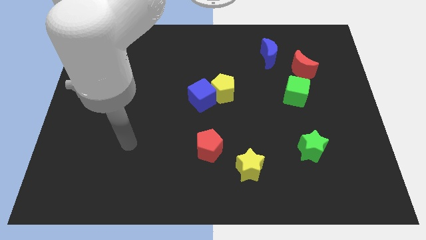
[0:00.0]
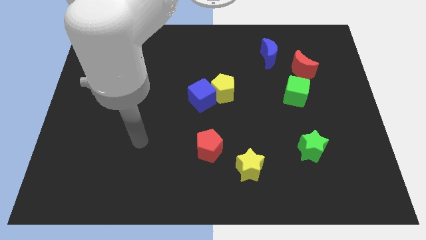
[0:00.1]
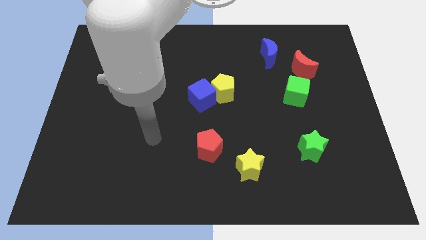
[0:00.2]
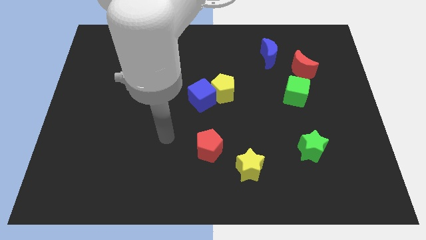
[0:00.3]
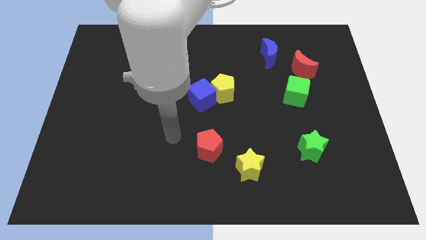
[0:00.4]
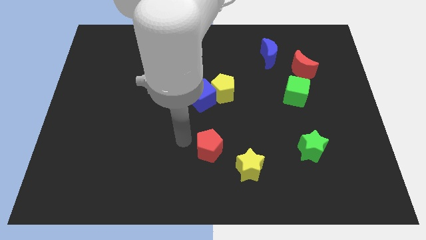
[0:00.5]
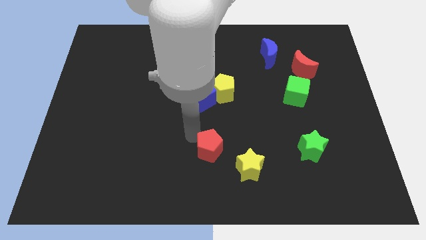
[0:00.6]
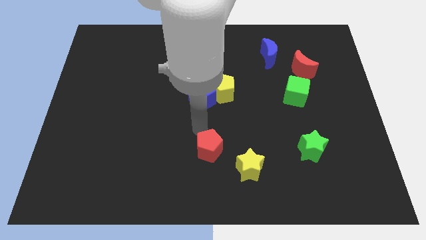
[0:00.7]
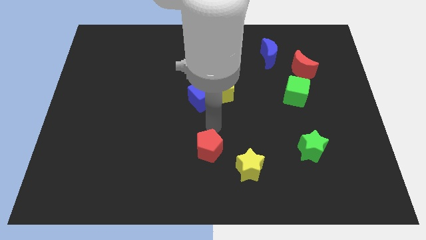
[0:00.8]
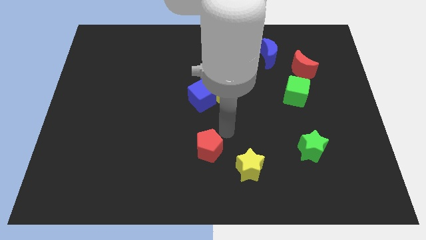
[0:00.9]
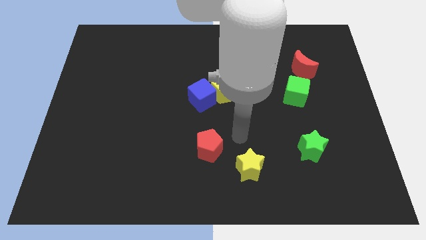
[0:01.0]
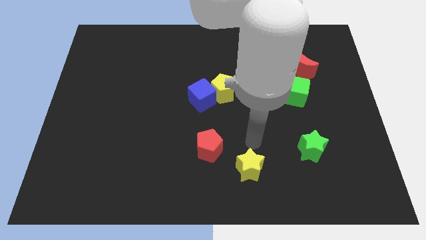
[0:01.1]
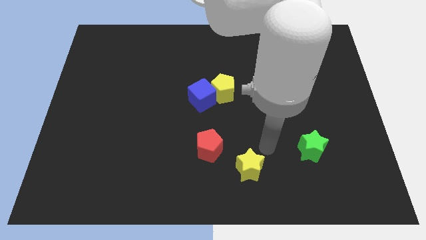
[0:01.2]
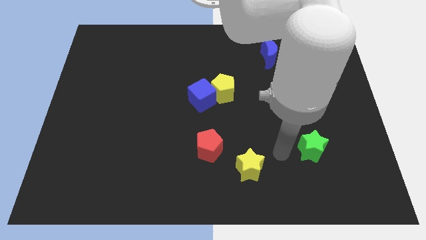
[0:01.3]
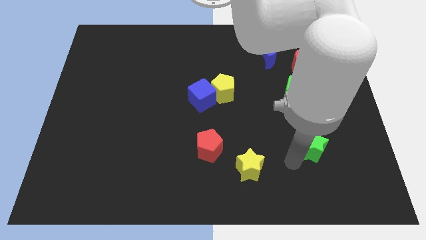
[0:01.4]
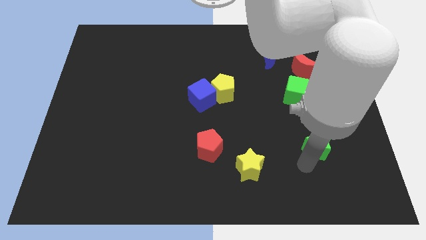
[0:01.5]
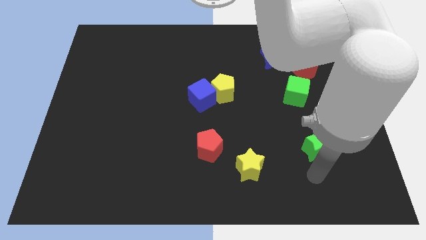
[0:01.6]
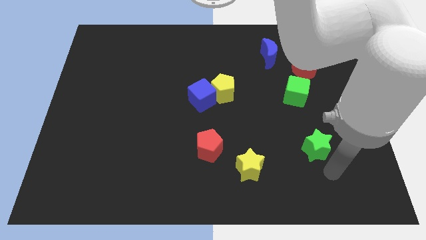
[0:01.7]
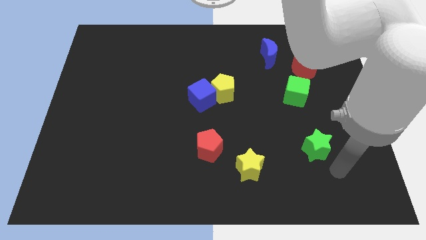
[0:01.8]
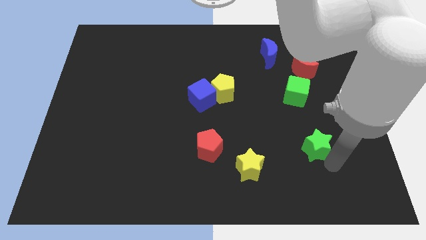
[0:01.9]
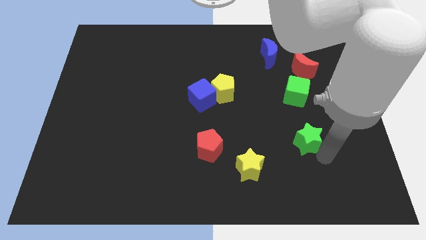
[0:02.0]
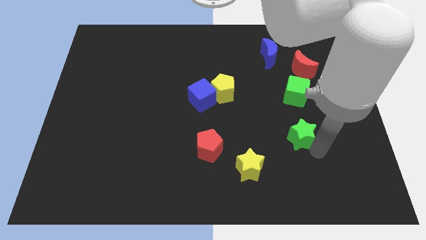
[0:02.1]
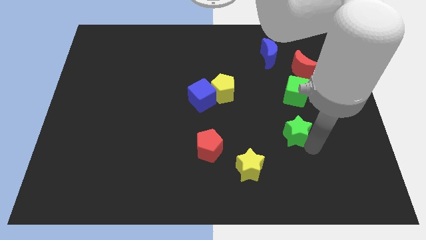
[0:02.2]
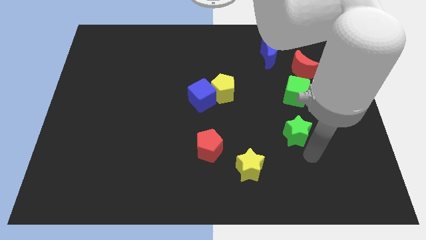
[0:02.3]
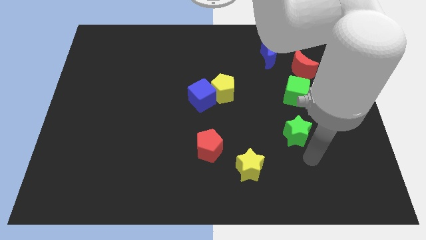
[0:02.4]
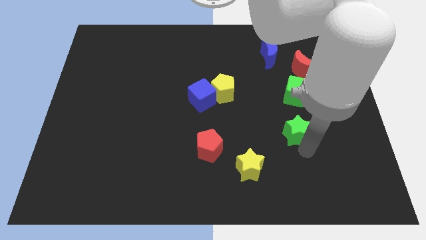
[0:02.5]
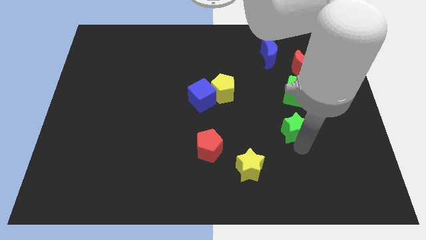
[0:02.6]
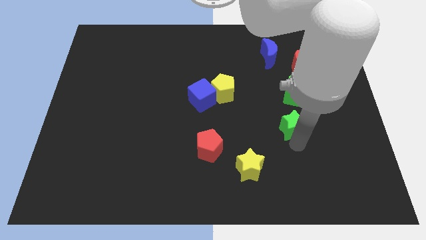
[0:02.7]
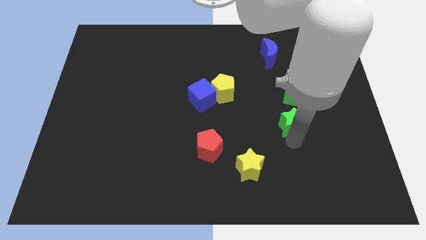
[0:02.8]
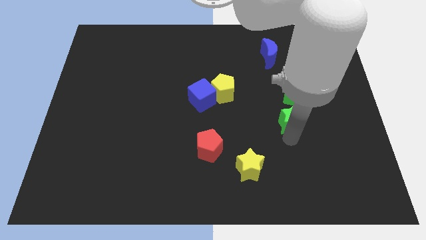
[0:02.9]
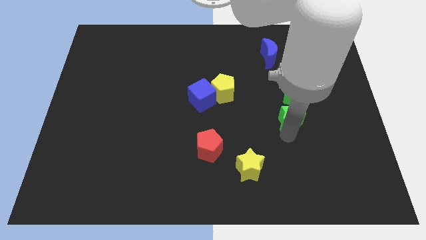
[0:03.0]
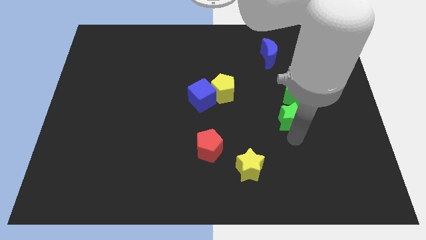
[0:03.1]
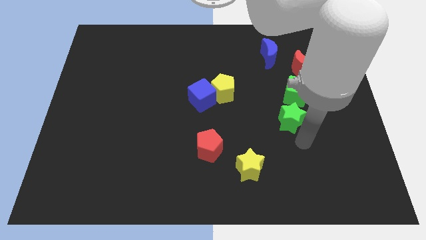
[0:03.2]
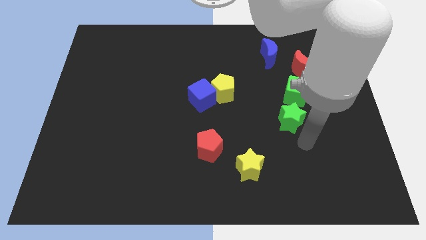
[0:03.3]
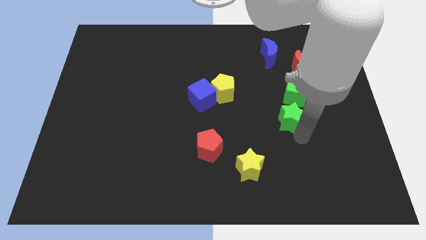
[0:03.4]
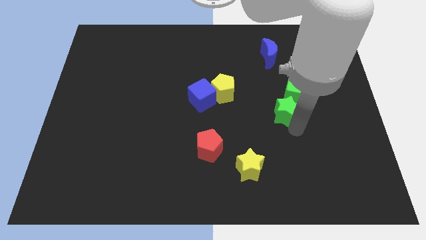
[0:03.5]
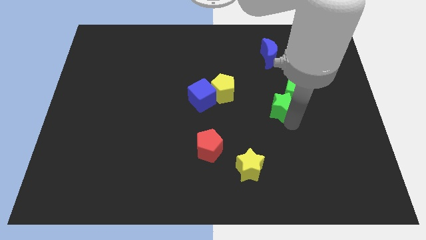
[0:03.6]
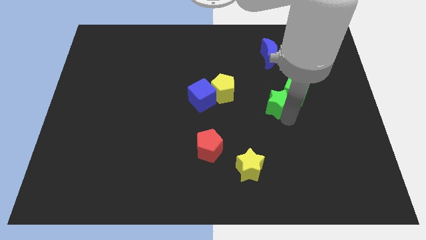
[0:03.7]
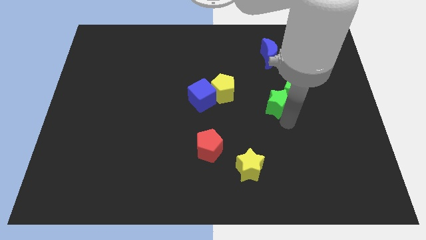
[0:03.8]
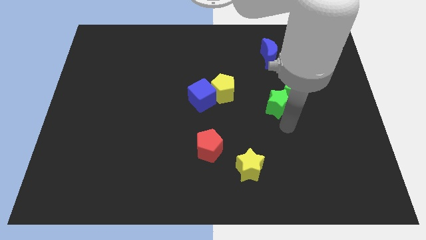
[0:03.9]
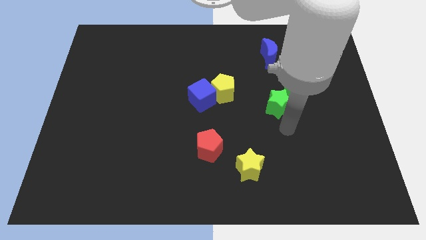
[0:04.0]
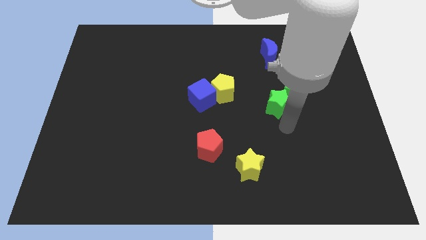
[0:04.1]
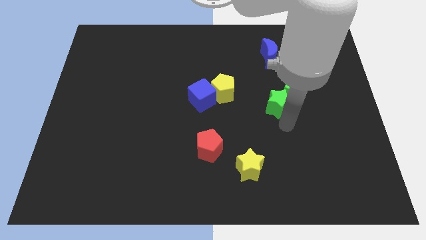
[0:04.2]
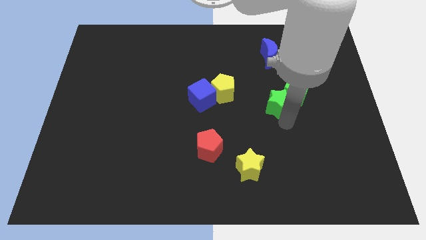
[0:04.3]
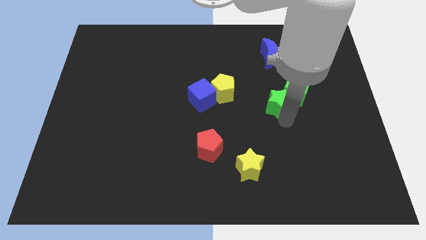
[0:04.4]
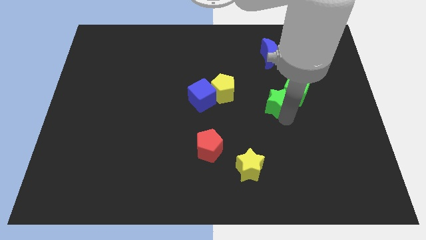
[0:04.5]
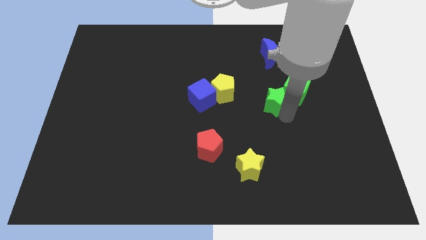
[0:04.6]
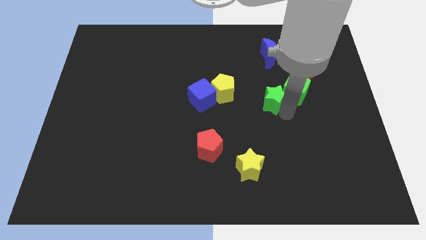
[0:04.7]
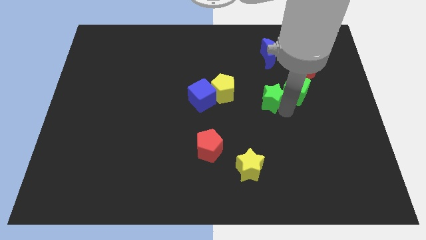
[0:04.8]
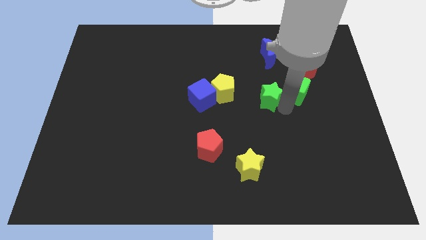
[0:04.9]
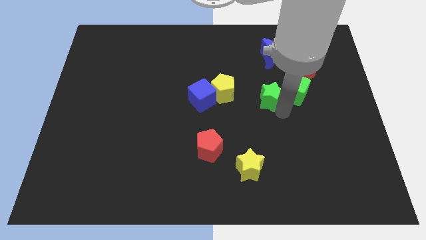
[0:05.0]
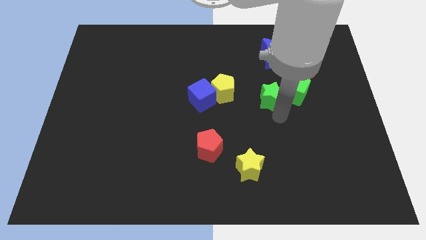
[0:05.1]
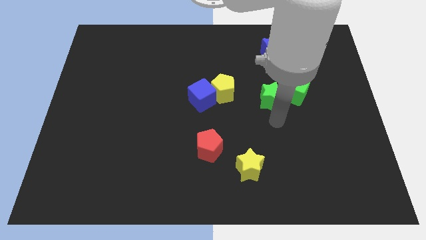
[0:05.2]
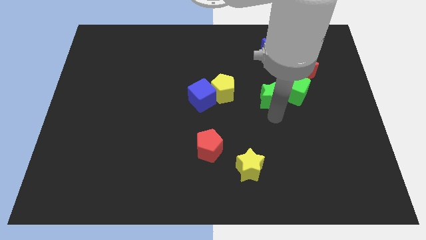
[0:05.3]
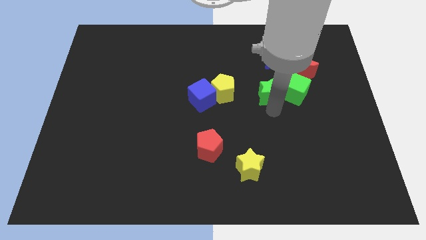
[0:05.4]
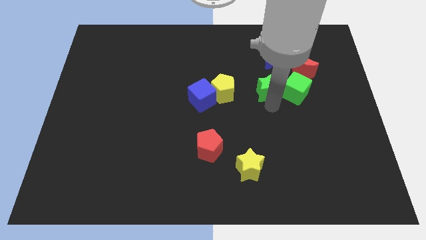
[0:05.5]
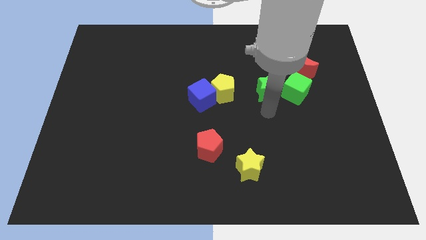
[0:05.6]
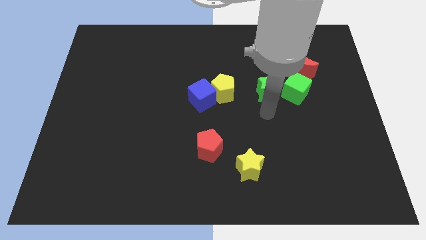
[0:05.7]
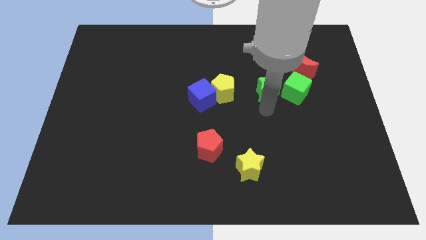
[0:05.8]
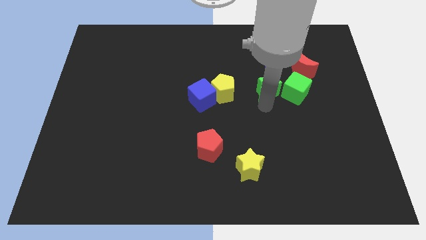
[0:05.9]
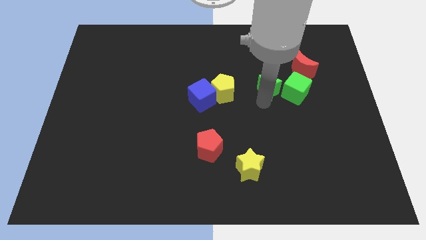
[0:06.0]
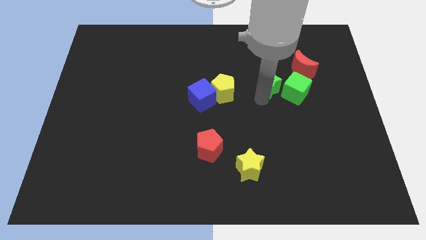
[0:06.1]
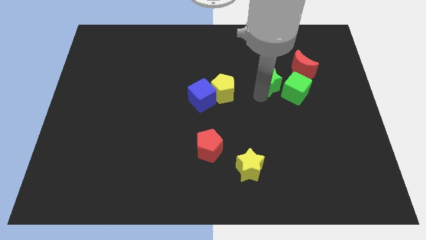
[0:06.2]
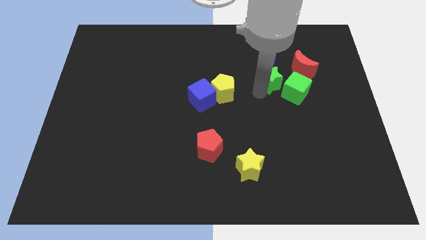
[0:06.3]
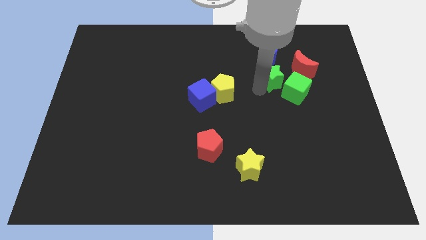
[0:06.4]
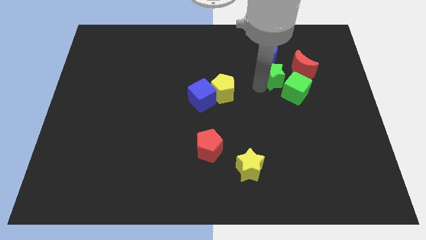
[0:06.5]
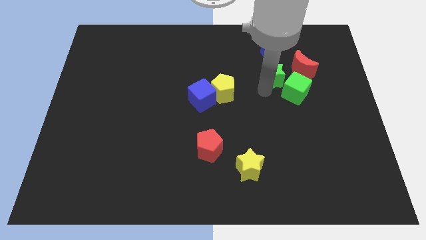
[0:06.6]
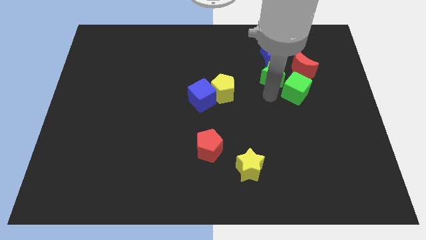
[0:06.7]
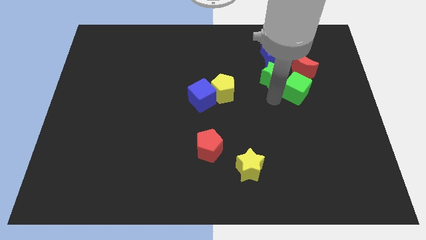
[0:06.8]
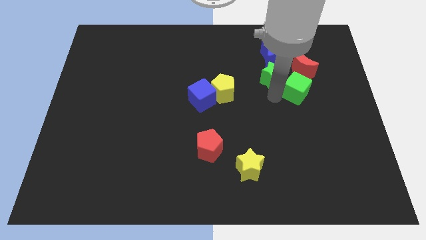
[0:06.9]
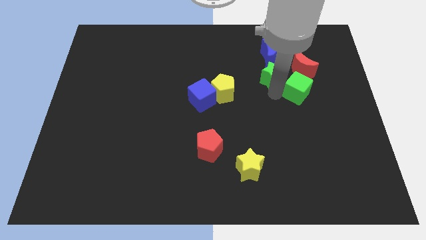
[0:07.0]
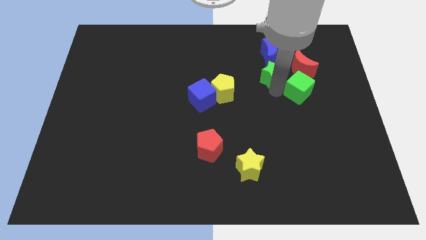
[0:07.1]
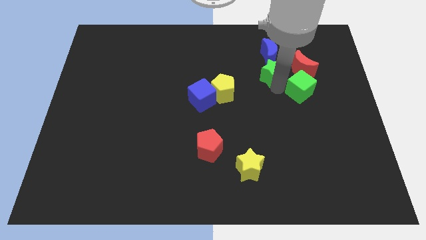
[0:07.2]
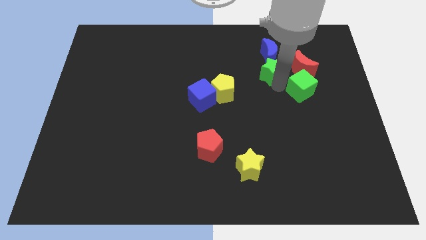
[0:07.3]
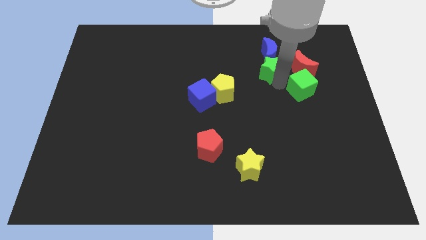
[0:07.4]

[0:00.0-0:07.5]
put the green star towards the blue moon
